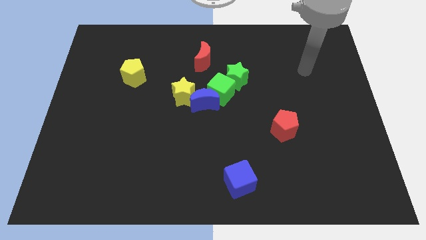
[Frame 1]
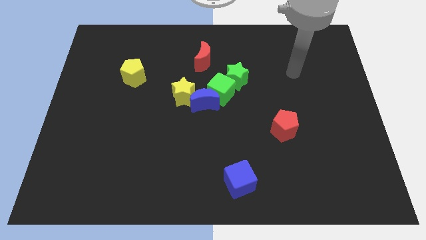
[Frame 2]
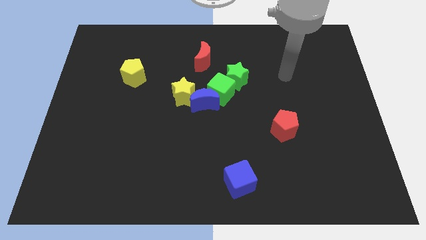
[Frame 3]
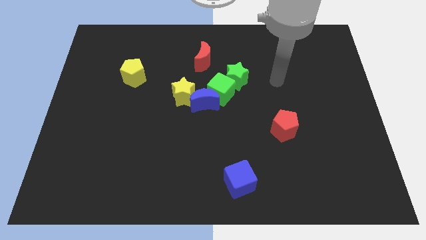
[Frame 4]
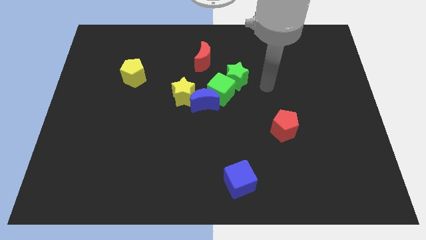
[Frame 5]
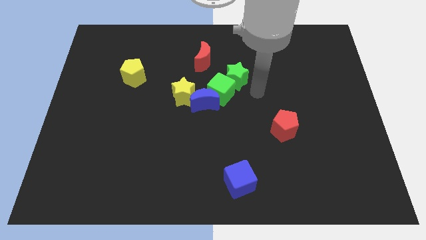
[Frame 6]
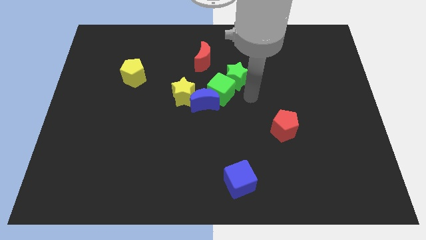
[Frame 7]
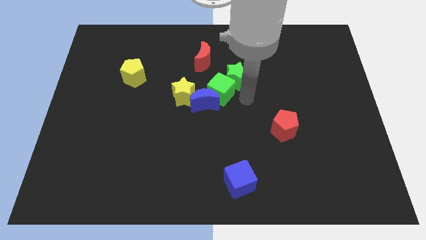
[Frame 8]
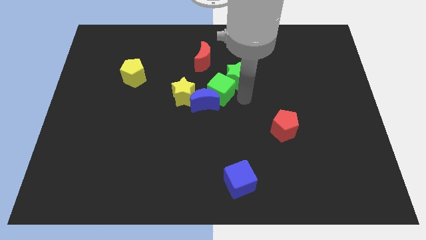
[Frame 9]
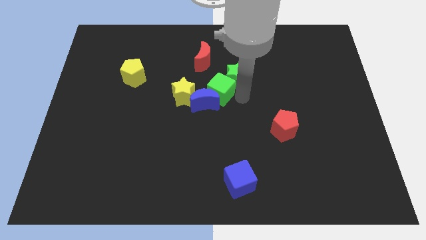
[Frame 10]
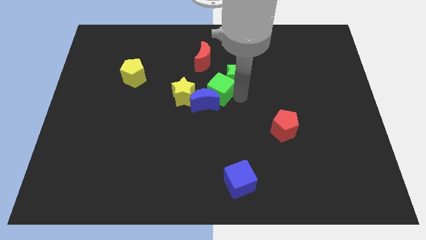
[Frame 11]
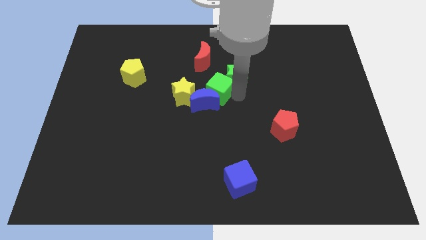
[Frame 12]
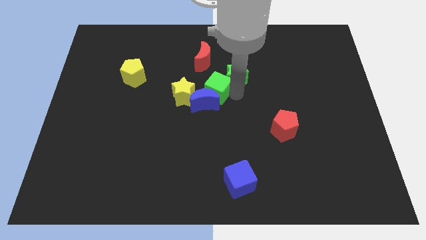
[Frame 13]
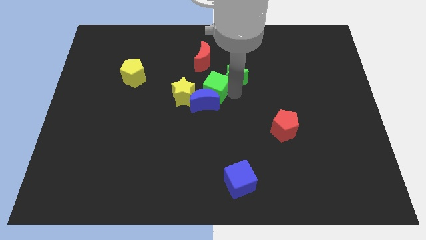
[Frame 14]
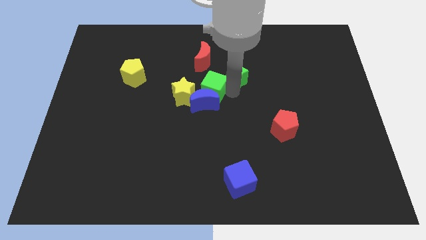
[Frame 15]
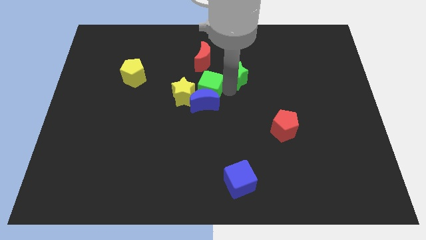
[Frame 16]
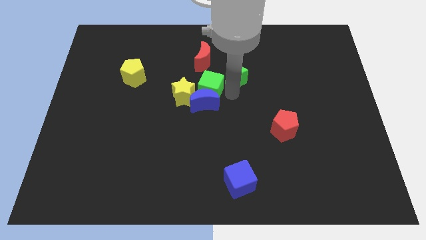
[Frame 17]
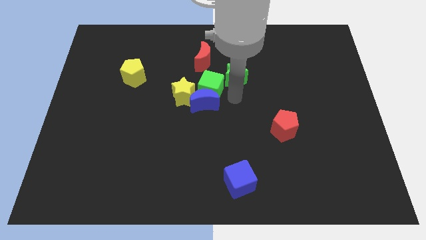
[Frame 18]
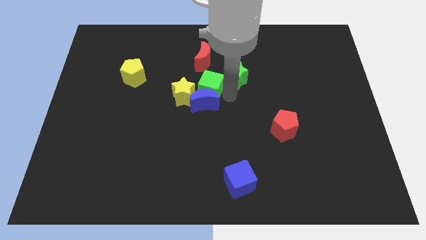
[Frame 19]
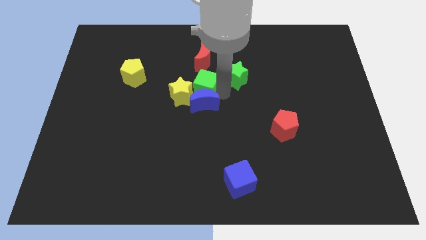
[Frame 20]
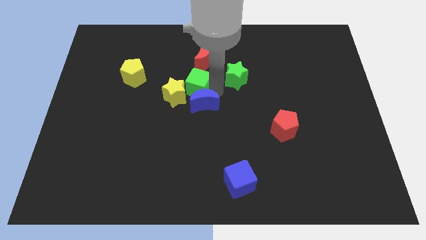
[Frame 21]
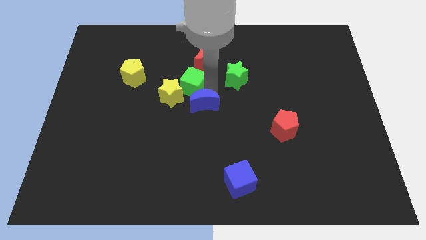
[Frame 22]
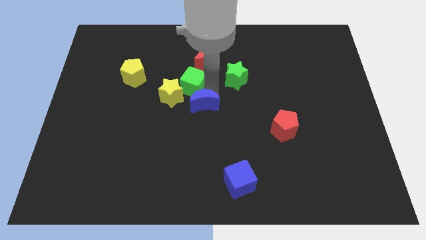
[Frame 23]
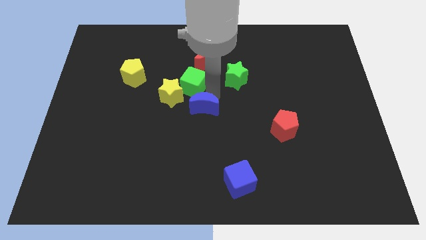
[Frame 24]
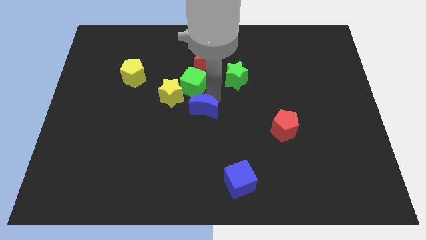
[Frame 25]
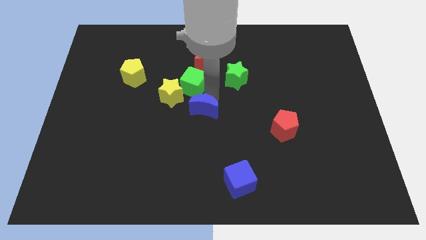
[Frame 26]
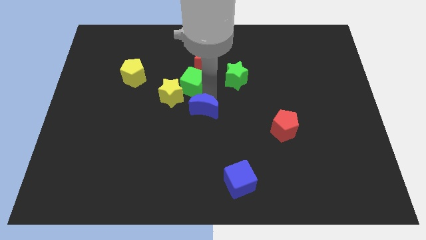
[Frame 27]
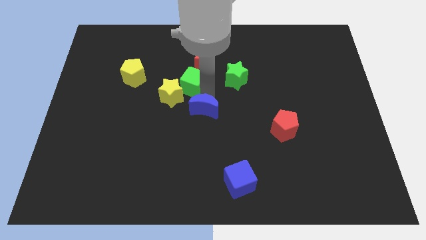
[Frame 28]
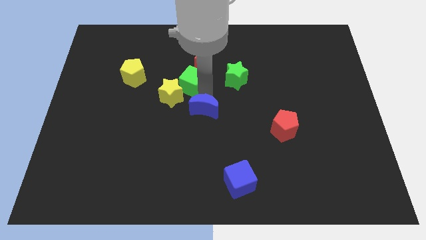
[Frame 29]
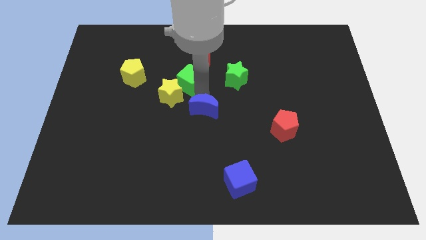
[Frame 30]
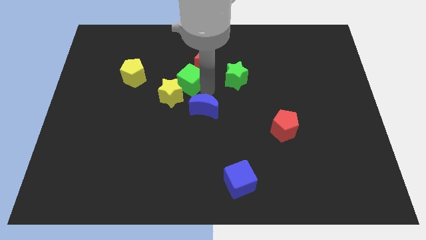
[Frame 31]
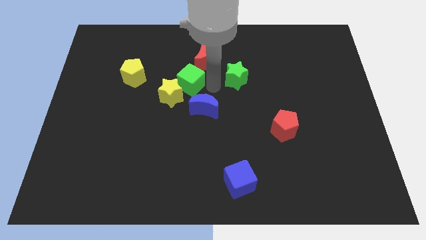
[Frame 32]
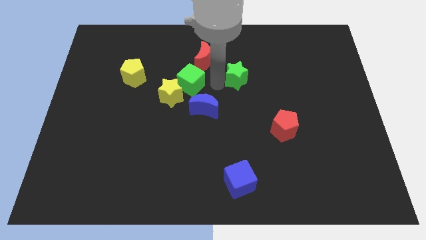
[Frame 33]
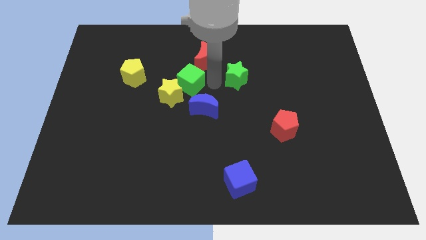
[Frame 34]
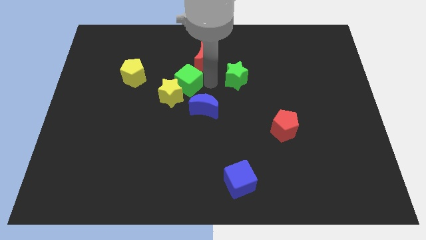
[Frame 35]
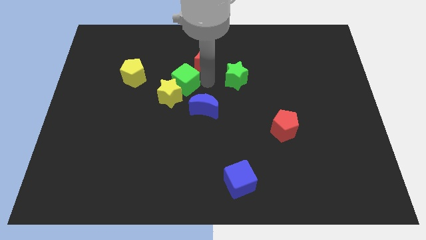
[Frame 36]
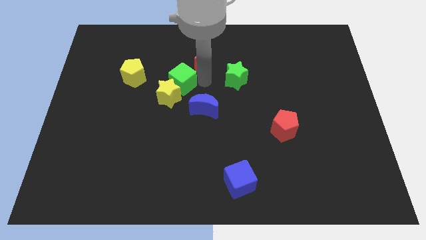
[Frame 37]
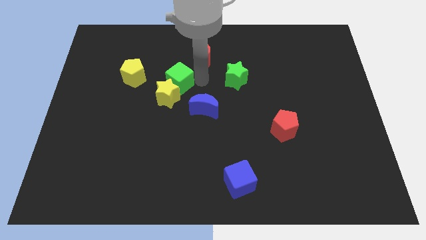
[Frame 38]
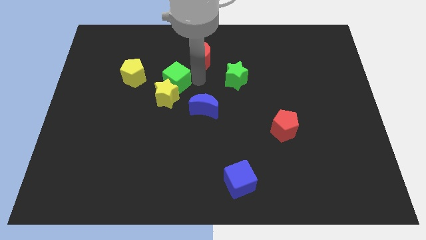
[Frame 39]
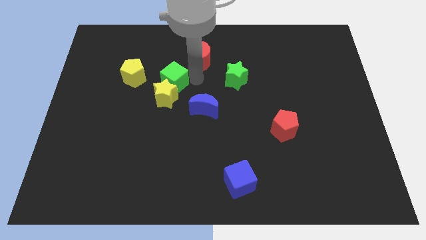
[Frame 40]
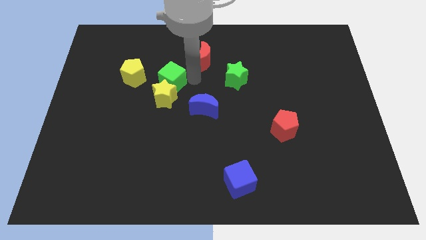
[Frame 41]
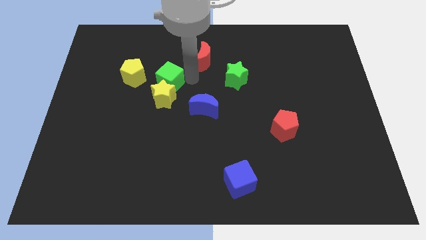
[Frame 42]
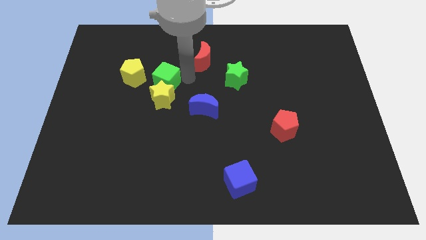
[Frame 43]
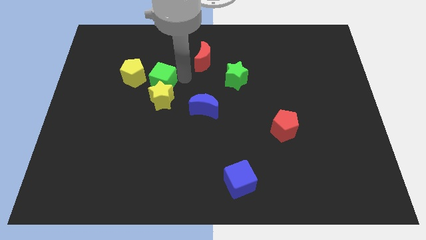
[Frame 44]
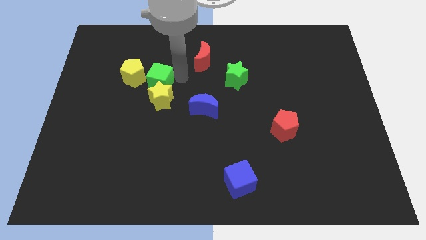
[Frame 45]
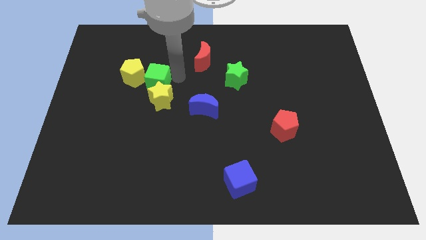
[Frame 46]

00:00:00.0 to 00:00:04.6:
push the green cube next to the yellow pentagon

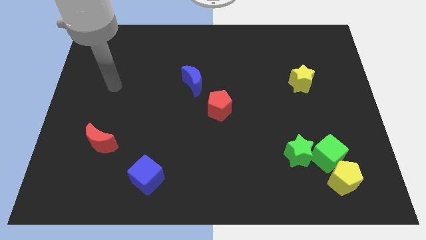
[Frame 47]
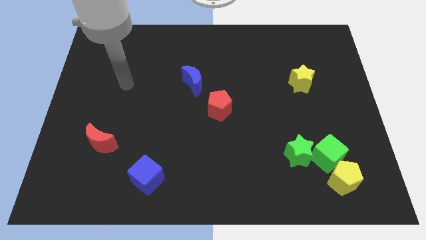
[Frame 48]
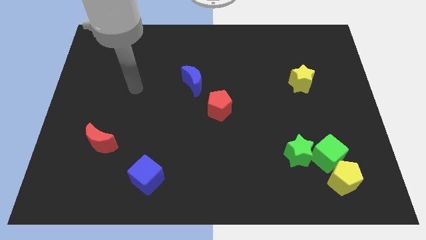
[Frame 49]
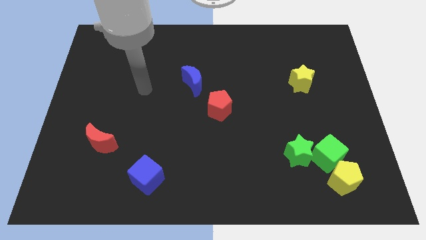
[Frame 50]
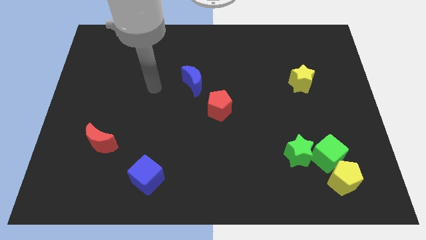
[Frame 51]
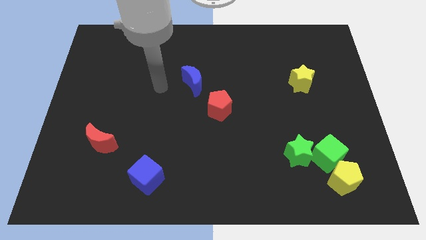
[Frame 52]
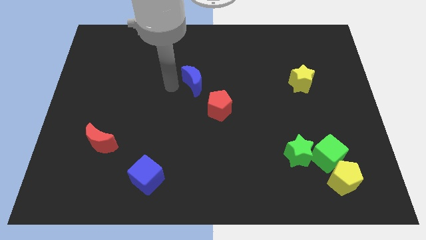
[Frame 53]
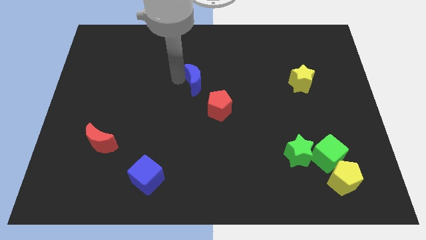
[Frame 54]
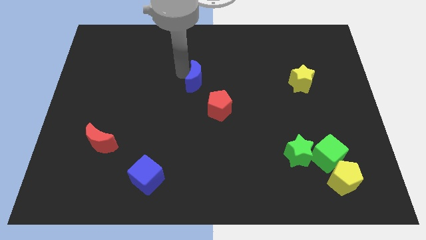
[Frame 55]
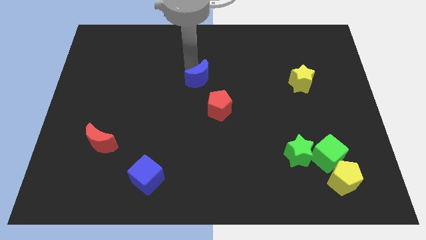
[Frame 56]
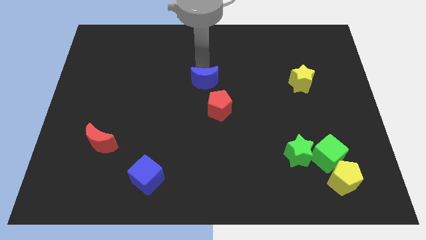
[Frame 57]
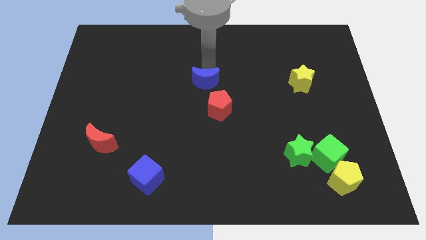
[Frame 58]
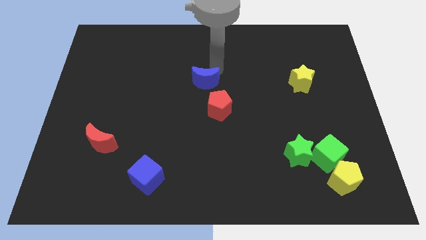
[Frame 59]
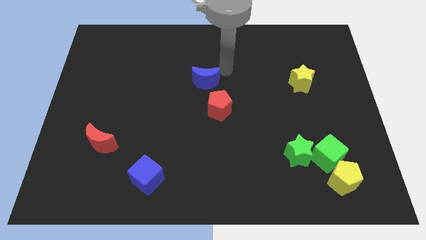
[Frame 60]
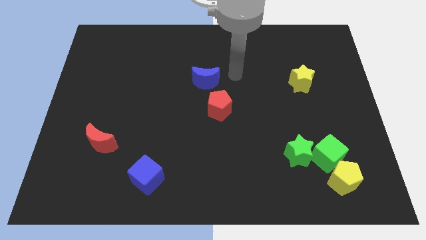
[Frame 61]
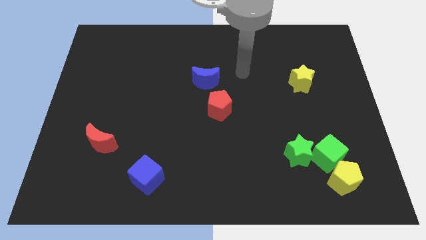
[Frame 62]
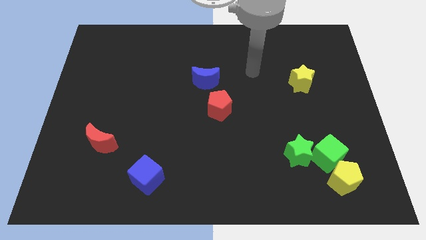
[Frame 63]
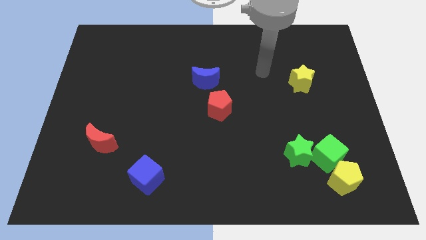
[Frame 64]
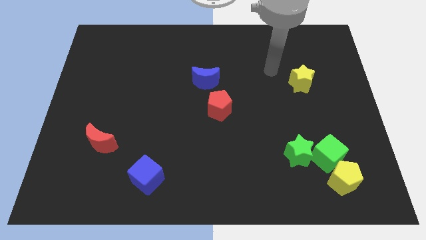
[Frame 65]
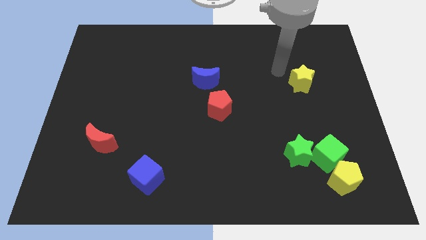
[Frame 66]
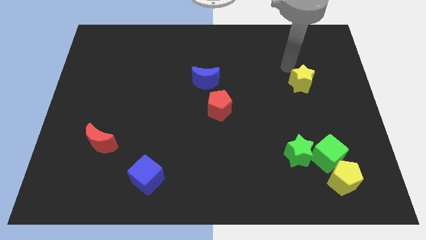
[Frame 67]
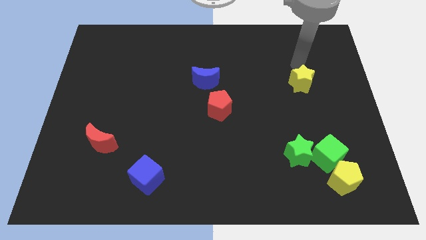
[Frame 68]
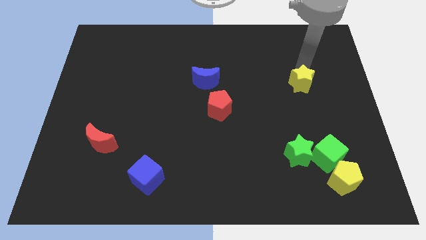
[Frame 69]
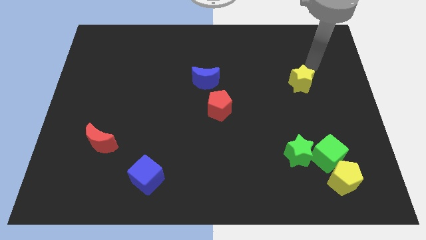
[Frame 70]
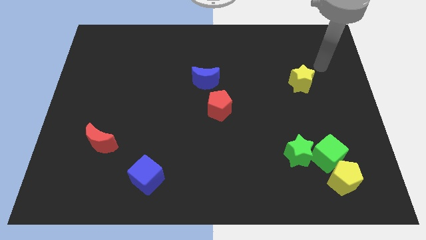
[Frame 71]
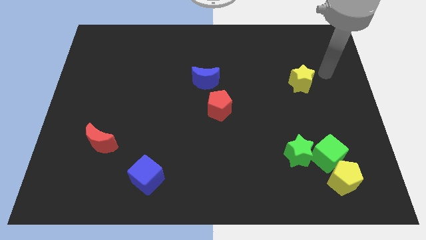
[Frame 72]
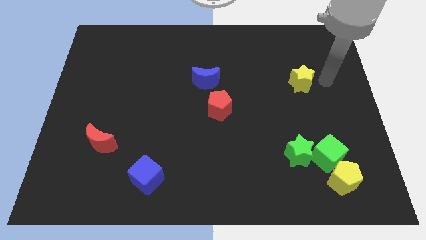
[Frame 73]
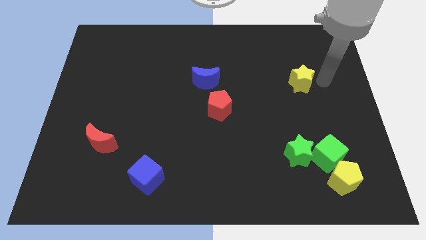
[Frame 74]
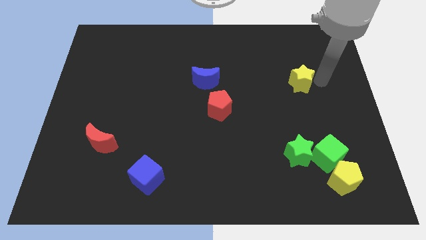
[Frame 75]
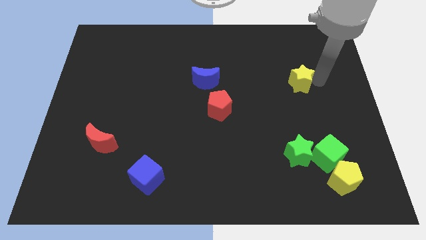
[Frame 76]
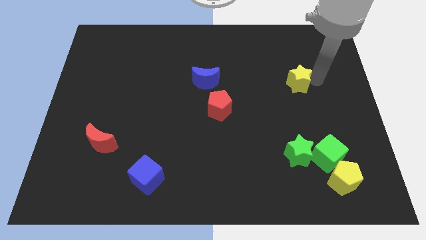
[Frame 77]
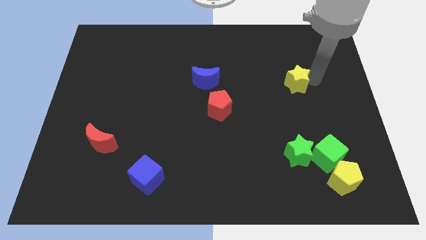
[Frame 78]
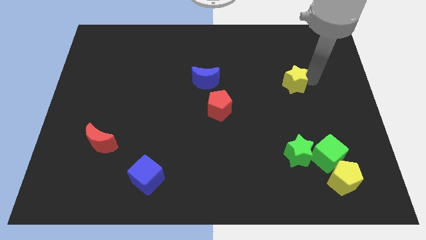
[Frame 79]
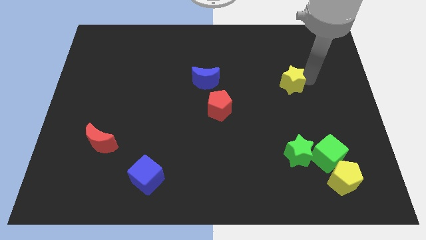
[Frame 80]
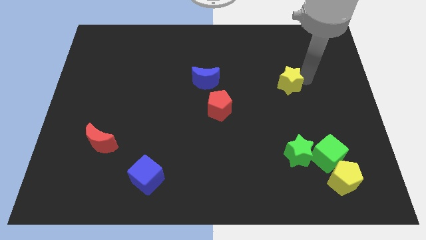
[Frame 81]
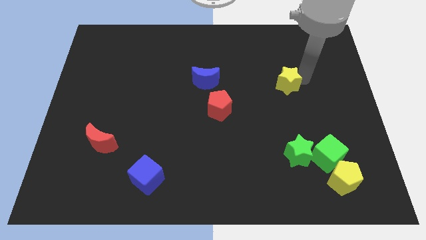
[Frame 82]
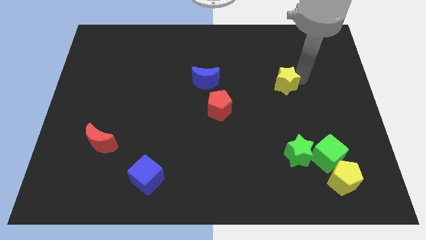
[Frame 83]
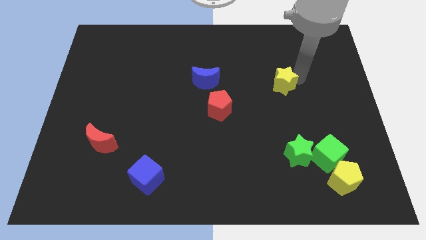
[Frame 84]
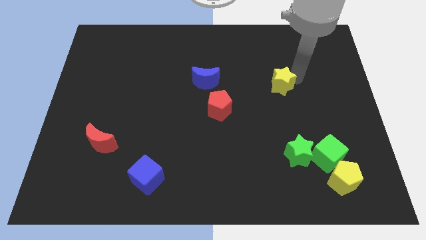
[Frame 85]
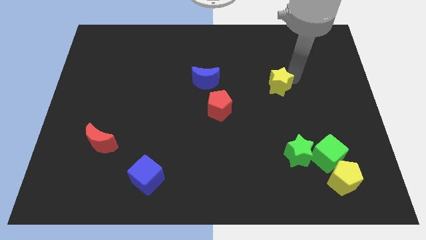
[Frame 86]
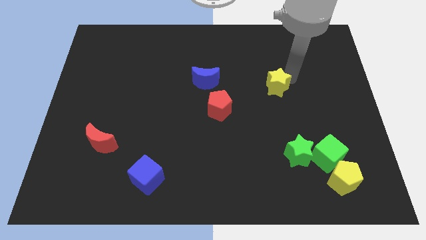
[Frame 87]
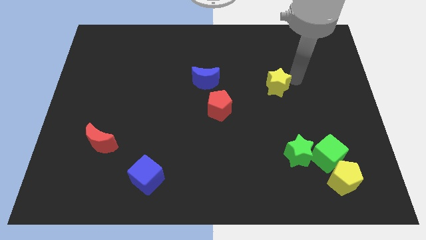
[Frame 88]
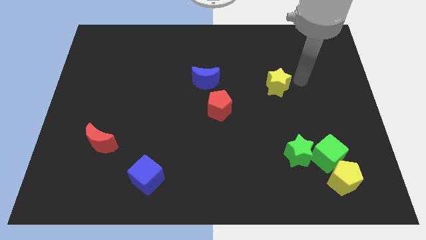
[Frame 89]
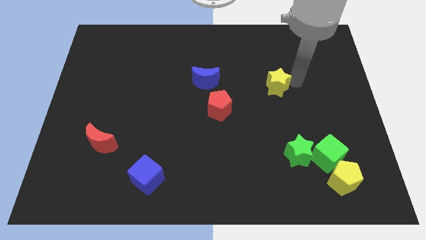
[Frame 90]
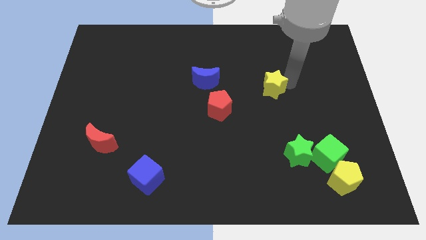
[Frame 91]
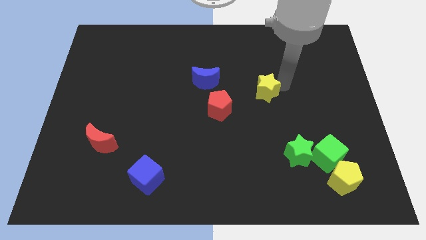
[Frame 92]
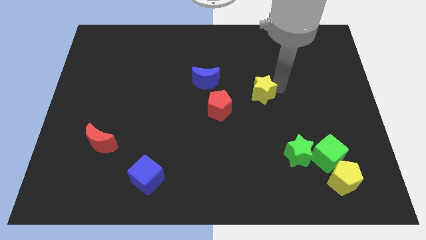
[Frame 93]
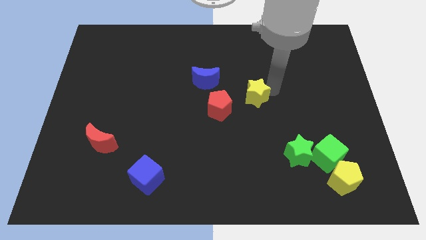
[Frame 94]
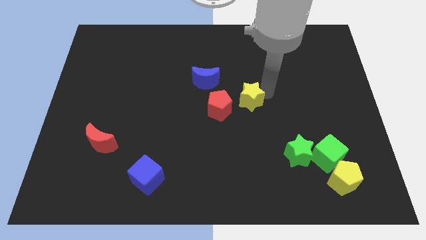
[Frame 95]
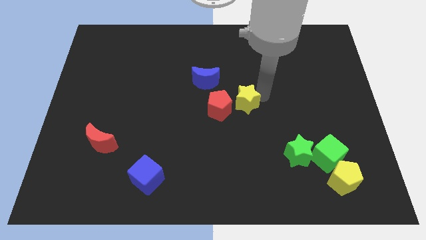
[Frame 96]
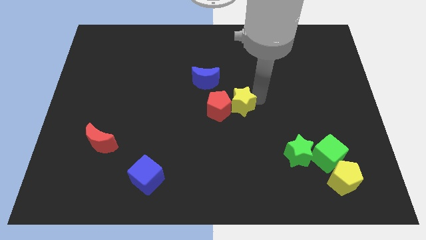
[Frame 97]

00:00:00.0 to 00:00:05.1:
move the yellow star close to the red pentagon
